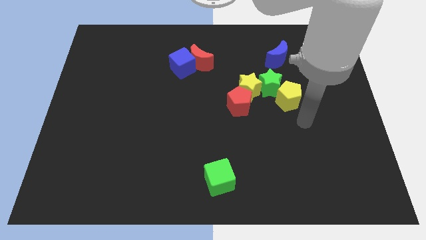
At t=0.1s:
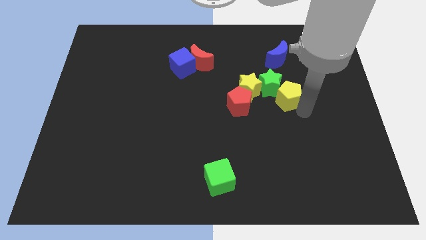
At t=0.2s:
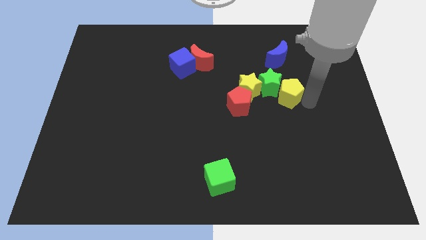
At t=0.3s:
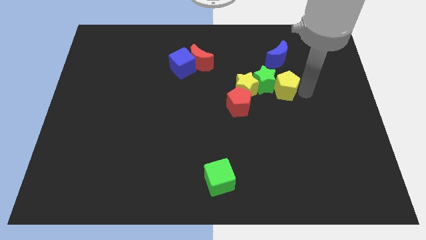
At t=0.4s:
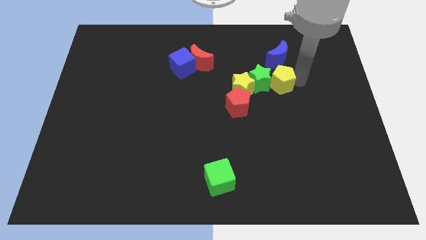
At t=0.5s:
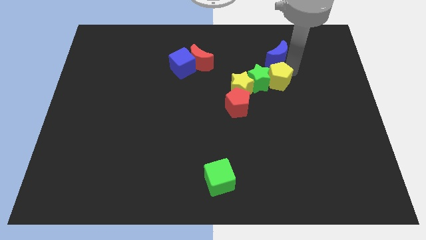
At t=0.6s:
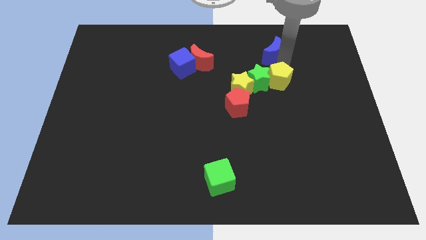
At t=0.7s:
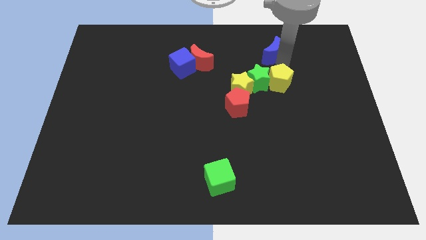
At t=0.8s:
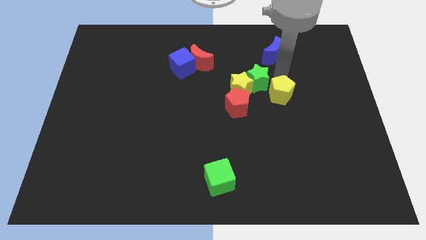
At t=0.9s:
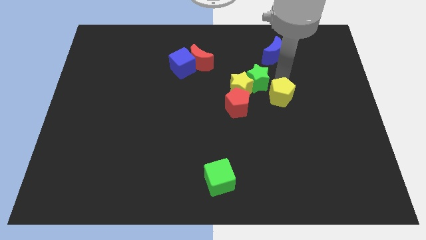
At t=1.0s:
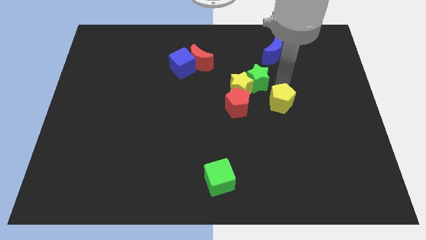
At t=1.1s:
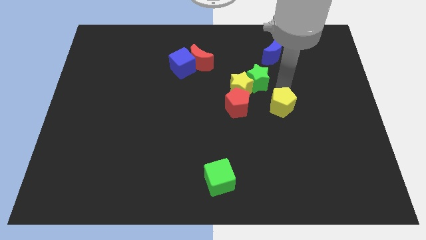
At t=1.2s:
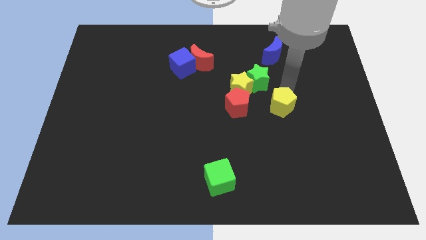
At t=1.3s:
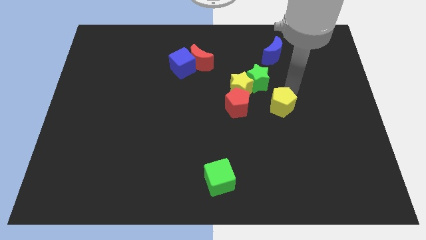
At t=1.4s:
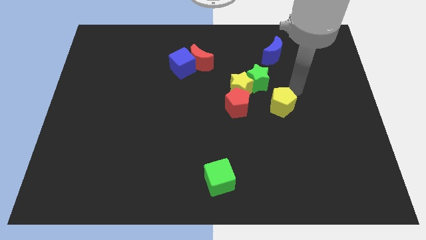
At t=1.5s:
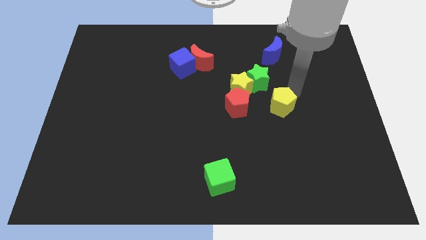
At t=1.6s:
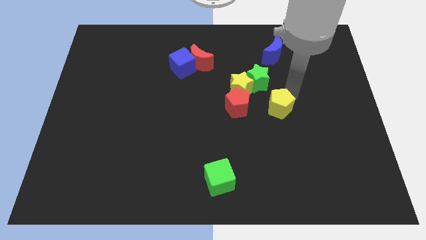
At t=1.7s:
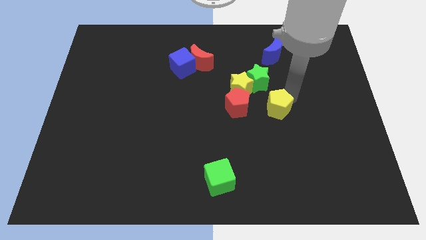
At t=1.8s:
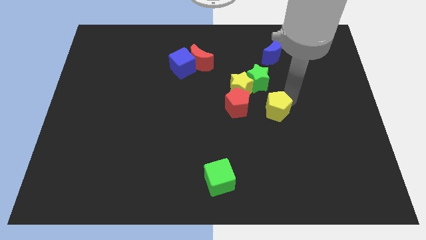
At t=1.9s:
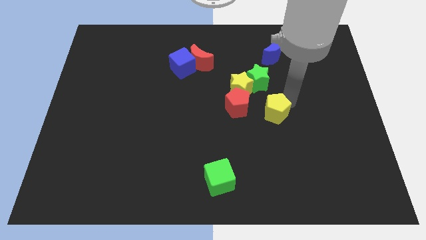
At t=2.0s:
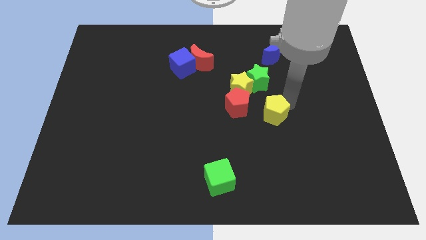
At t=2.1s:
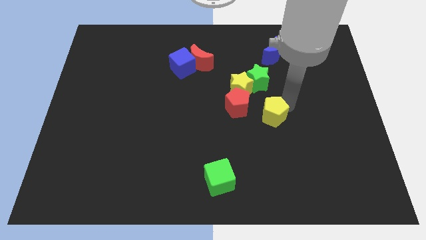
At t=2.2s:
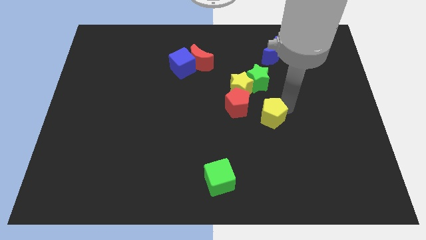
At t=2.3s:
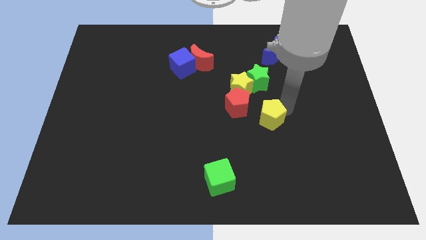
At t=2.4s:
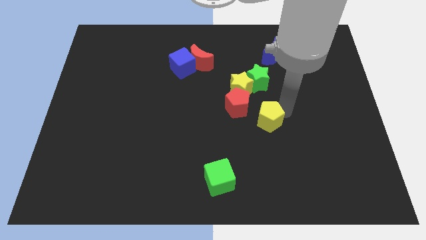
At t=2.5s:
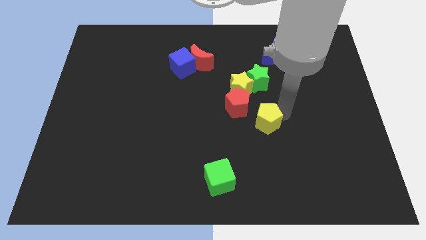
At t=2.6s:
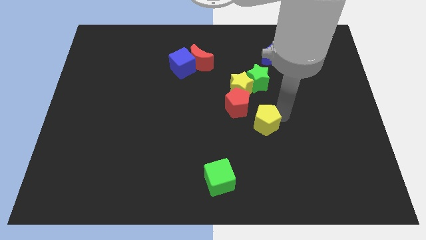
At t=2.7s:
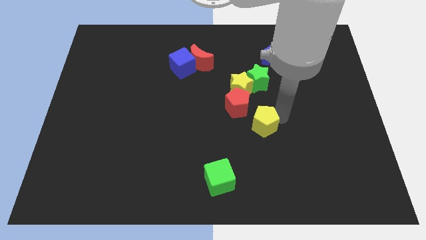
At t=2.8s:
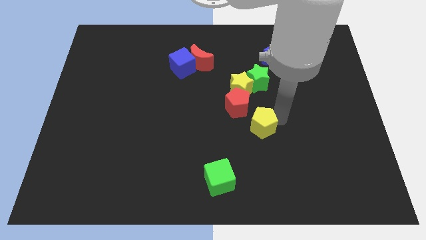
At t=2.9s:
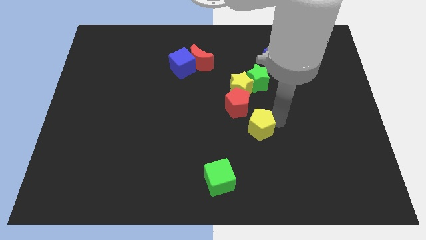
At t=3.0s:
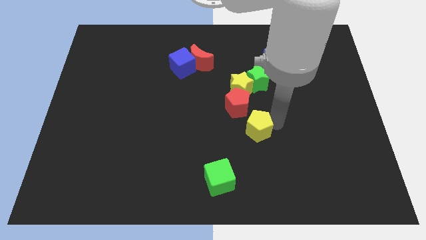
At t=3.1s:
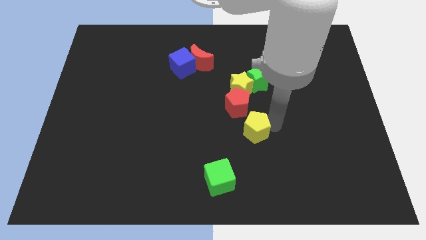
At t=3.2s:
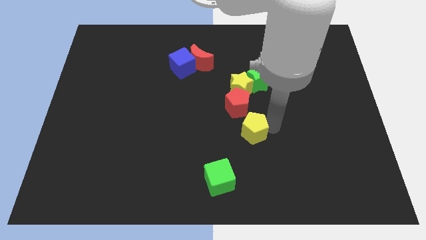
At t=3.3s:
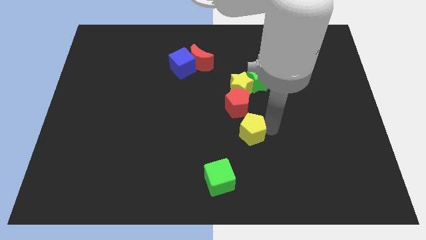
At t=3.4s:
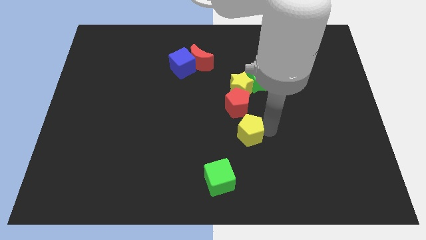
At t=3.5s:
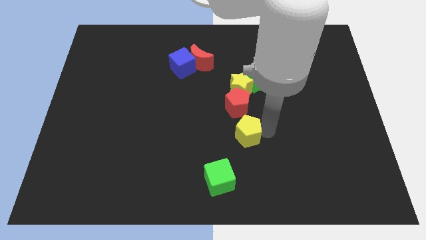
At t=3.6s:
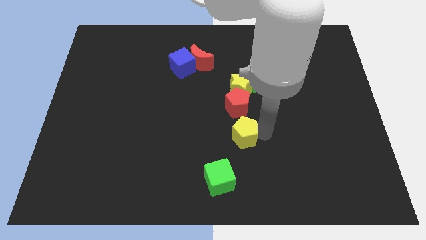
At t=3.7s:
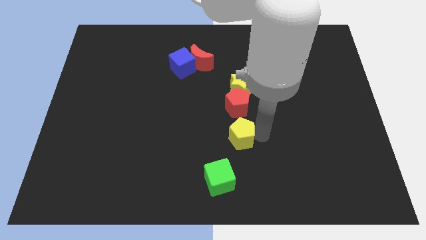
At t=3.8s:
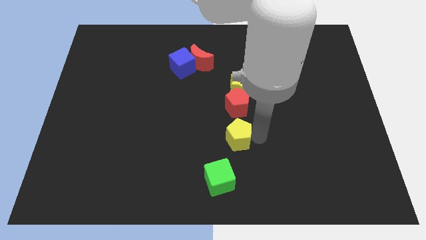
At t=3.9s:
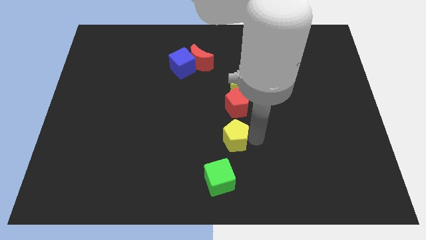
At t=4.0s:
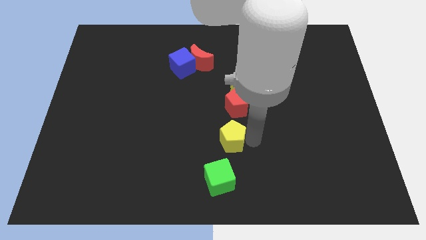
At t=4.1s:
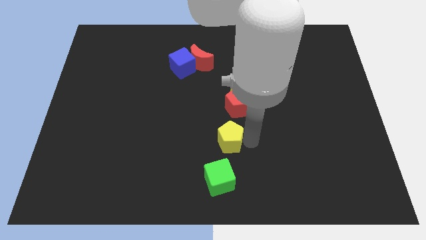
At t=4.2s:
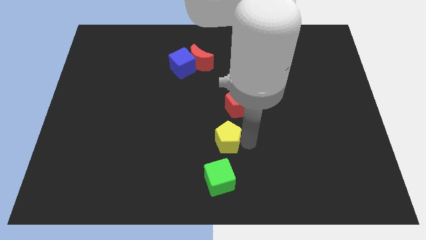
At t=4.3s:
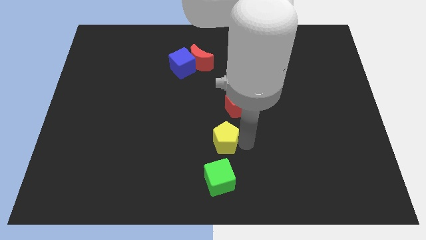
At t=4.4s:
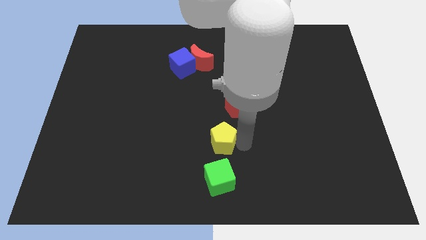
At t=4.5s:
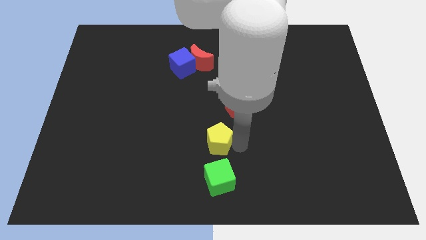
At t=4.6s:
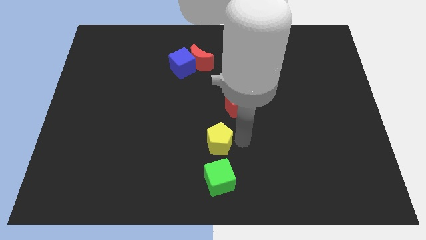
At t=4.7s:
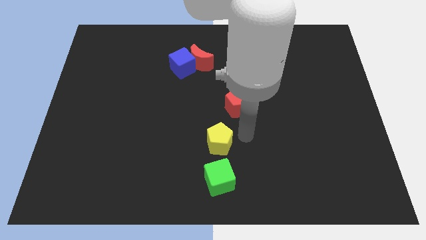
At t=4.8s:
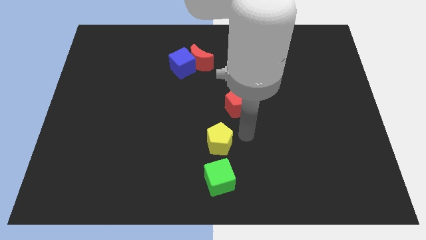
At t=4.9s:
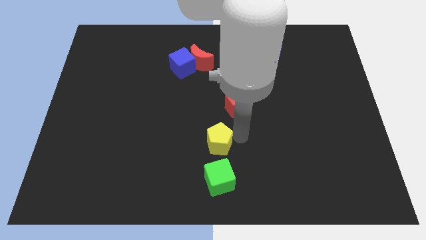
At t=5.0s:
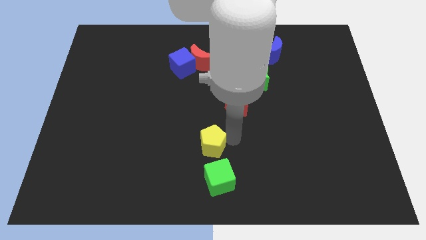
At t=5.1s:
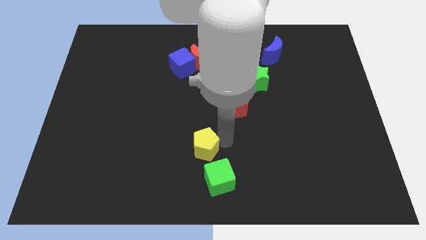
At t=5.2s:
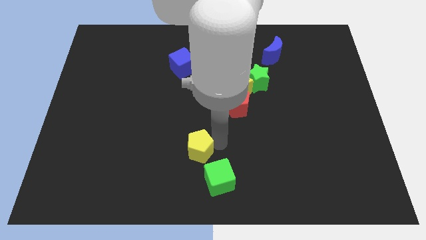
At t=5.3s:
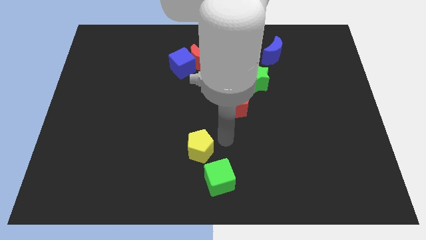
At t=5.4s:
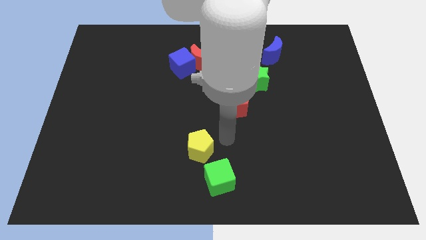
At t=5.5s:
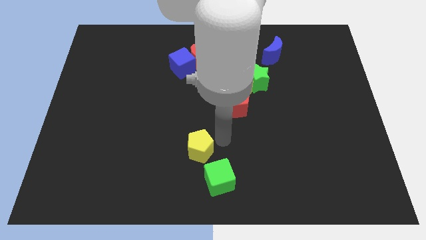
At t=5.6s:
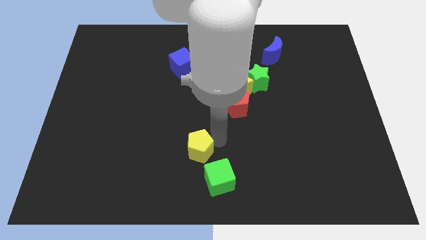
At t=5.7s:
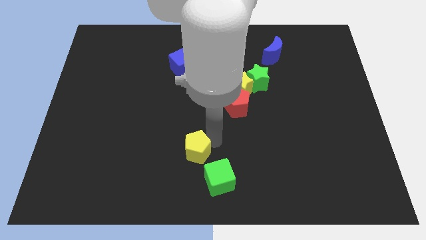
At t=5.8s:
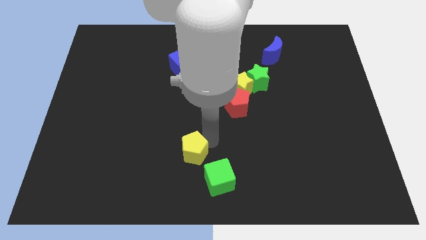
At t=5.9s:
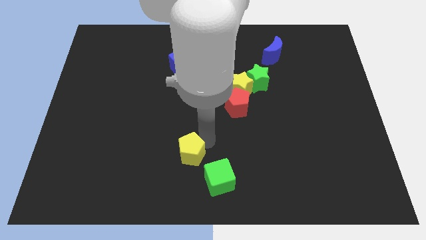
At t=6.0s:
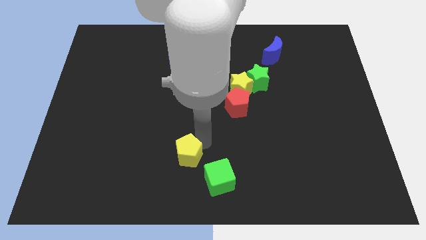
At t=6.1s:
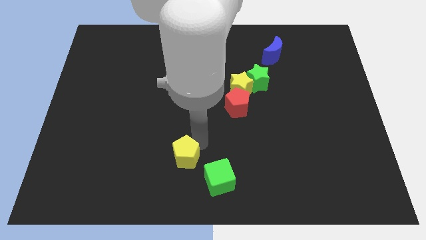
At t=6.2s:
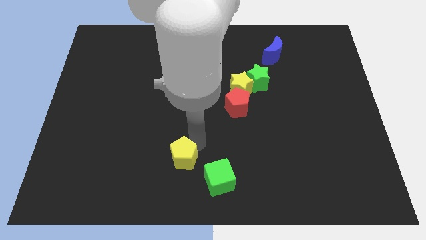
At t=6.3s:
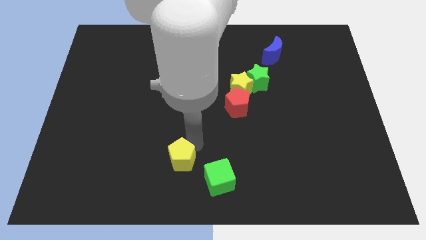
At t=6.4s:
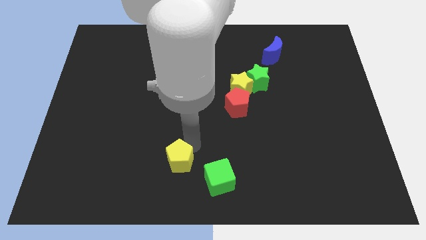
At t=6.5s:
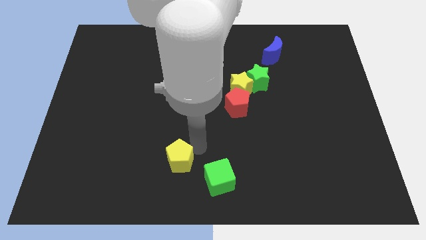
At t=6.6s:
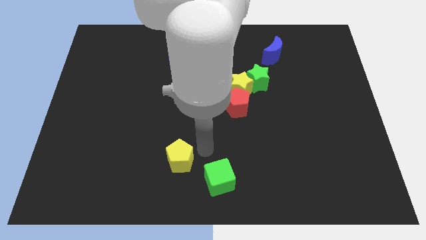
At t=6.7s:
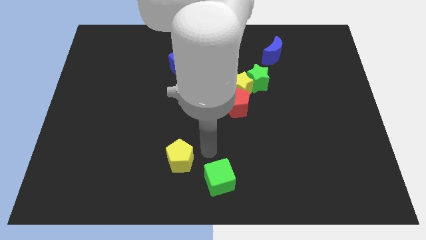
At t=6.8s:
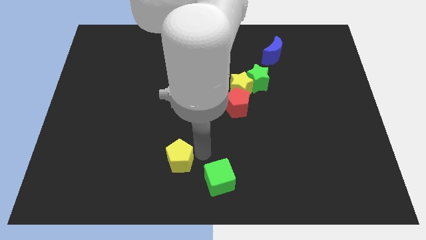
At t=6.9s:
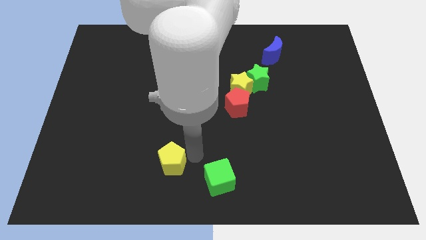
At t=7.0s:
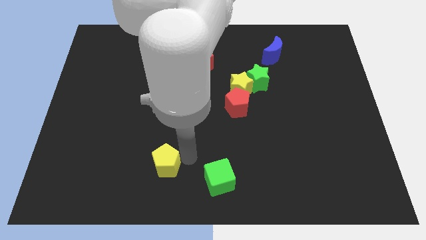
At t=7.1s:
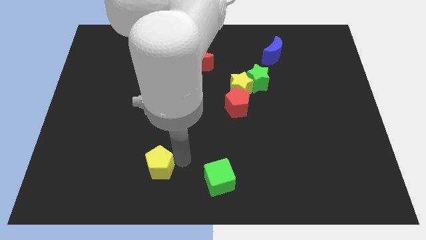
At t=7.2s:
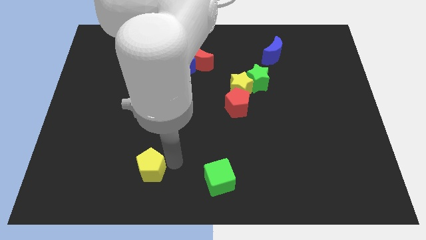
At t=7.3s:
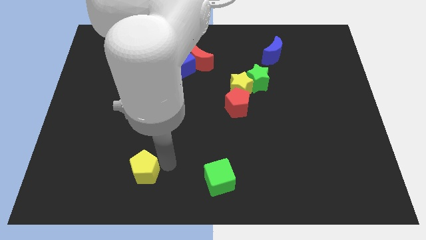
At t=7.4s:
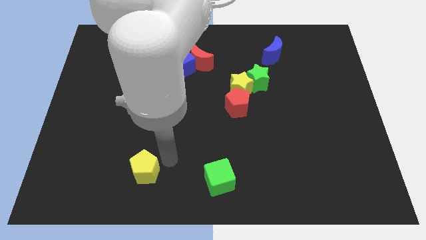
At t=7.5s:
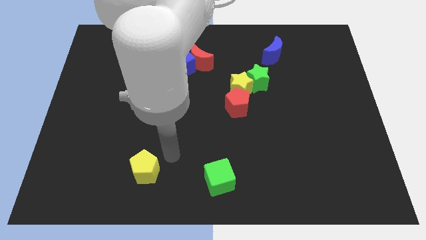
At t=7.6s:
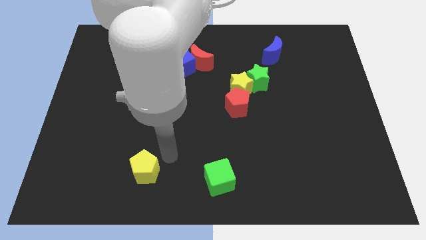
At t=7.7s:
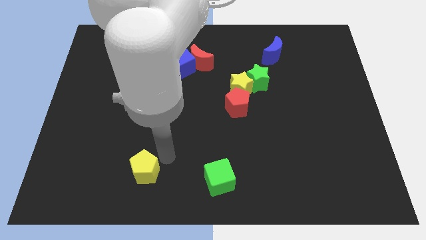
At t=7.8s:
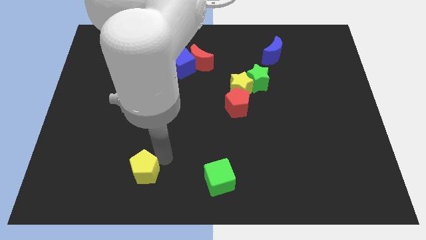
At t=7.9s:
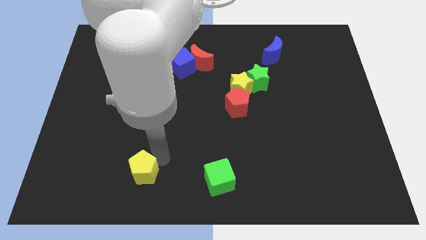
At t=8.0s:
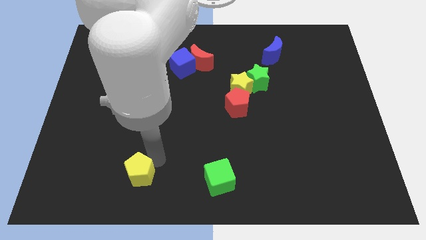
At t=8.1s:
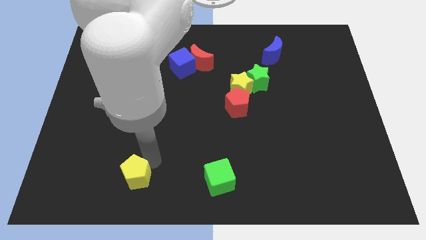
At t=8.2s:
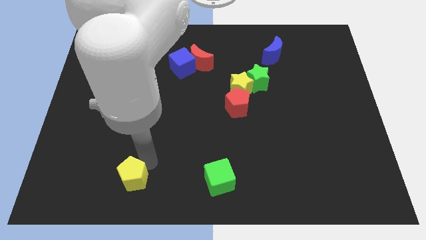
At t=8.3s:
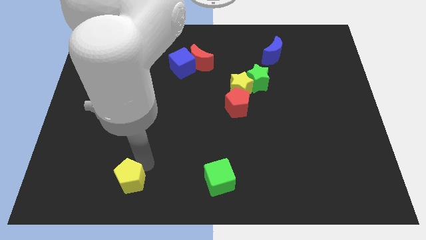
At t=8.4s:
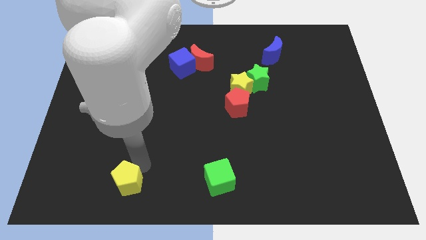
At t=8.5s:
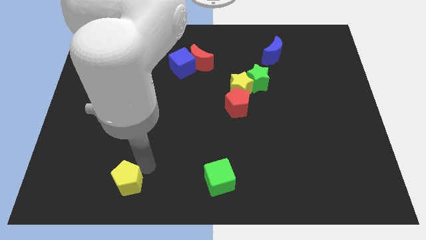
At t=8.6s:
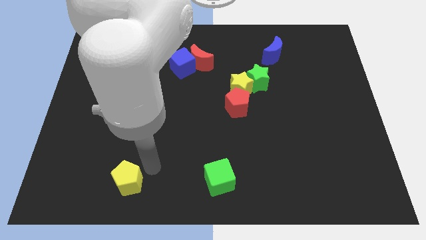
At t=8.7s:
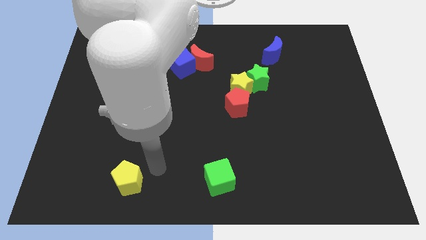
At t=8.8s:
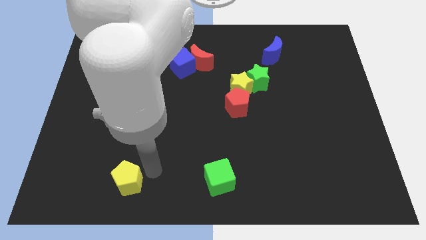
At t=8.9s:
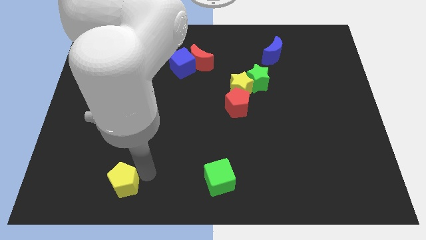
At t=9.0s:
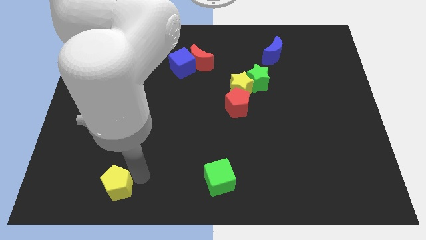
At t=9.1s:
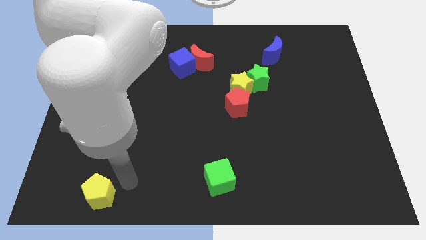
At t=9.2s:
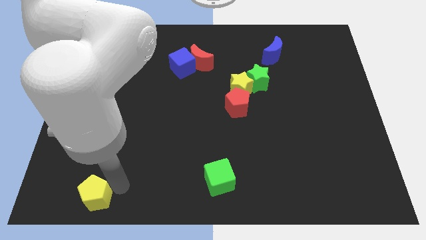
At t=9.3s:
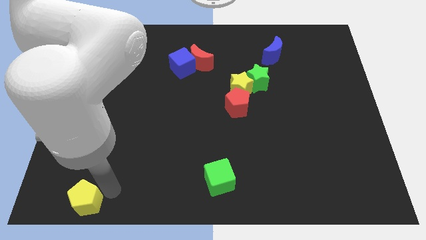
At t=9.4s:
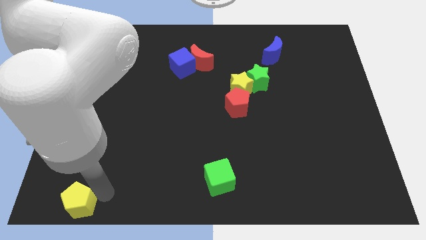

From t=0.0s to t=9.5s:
put the yellow pentagon to the bottom left of the board
